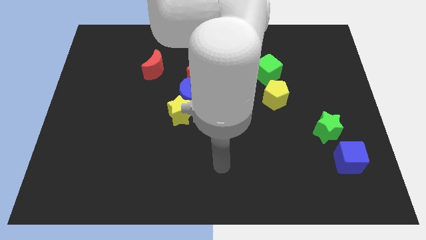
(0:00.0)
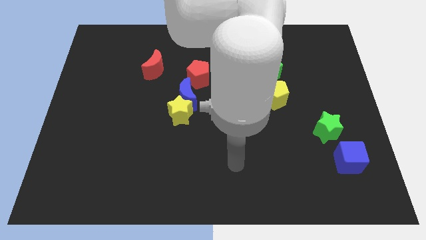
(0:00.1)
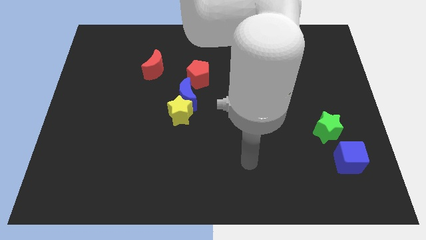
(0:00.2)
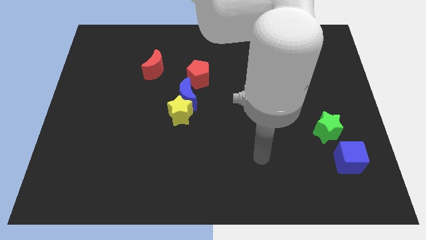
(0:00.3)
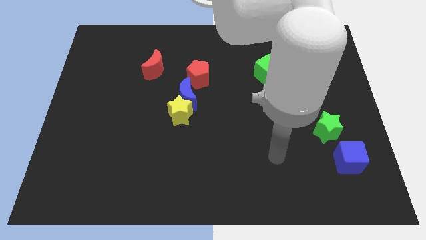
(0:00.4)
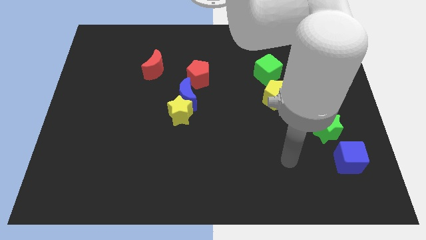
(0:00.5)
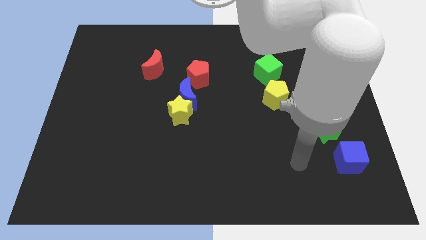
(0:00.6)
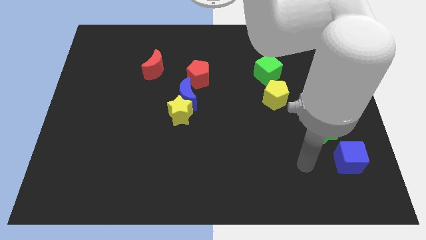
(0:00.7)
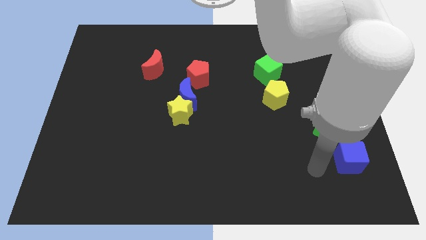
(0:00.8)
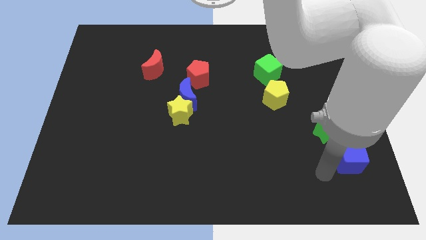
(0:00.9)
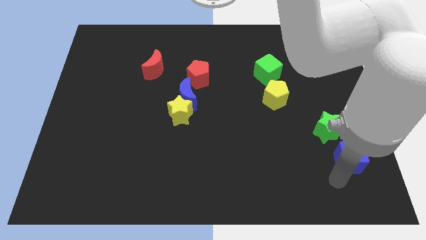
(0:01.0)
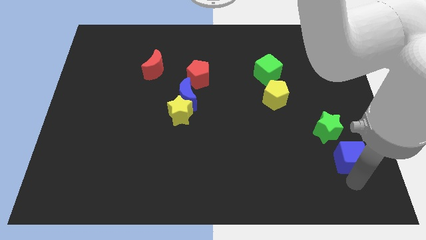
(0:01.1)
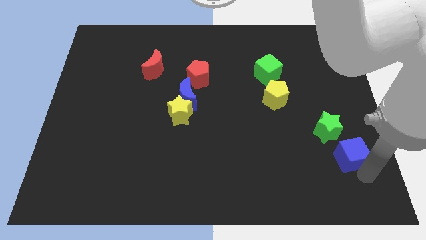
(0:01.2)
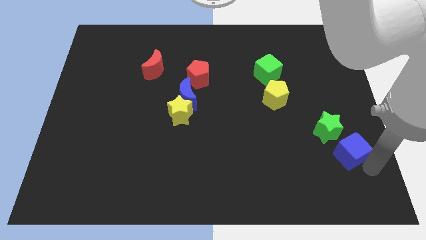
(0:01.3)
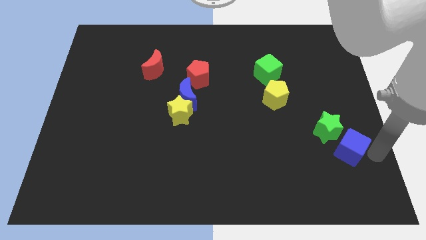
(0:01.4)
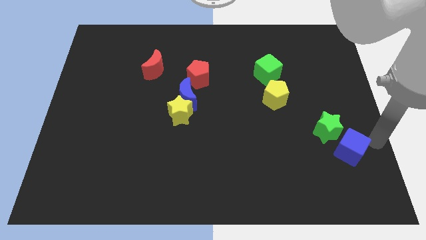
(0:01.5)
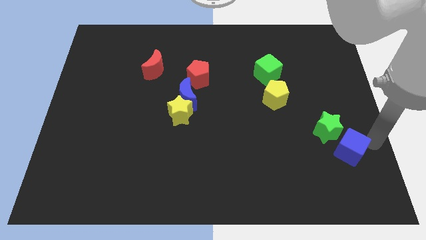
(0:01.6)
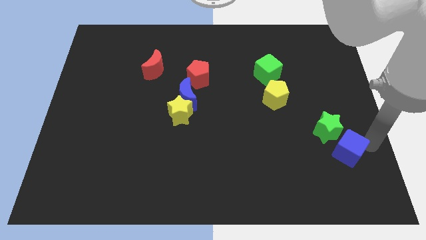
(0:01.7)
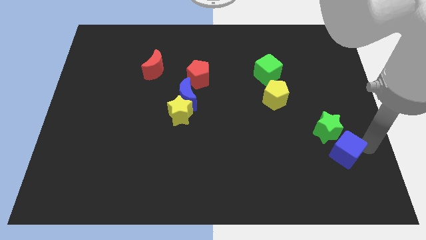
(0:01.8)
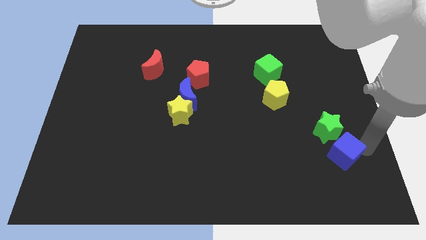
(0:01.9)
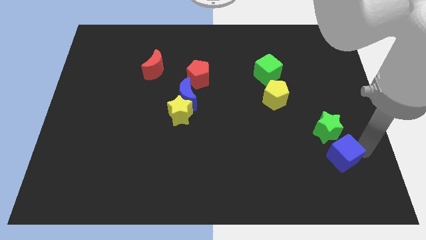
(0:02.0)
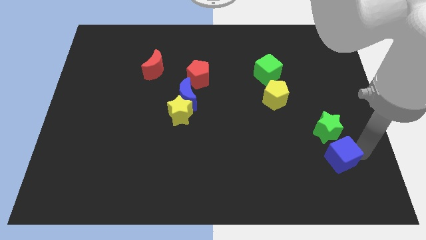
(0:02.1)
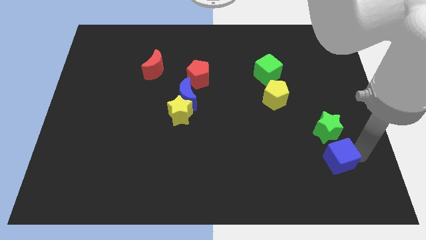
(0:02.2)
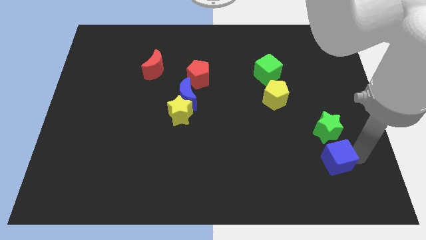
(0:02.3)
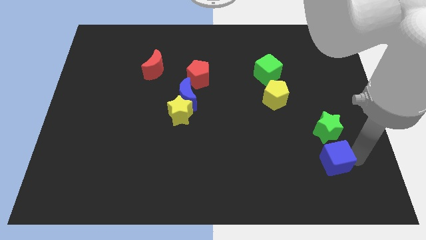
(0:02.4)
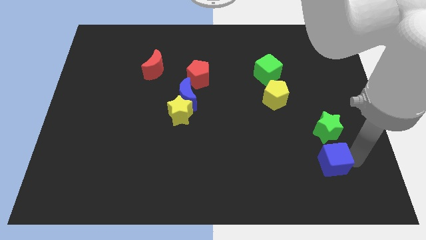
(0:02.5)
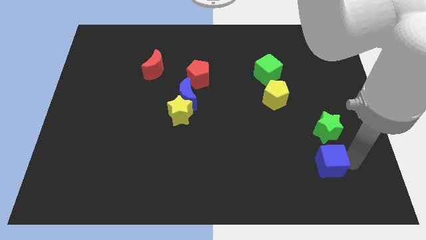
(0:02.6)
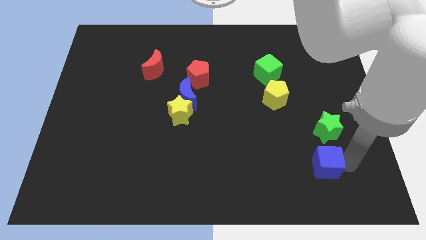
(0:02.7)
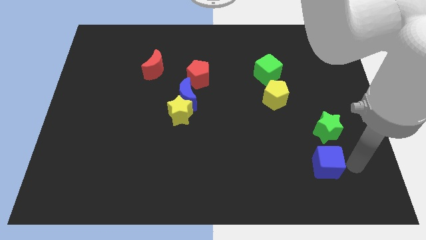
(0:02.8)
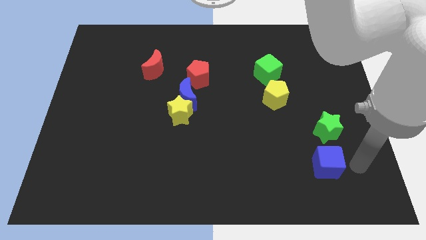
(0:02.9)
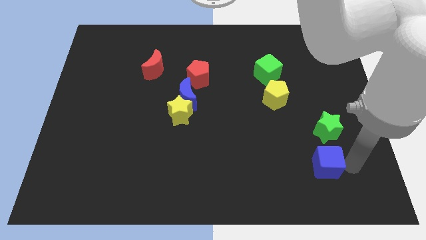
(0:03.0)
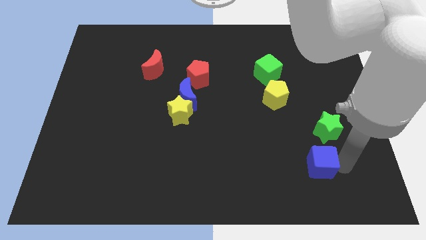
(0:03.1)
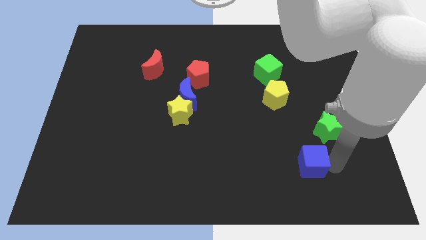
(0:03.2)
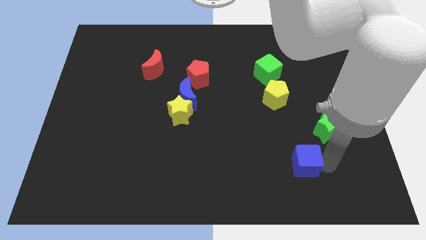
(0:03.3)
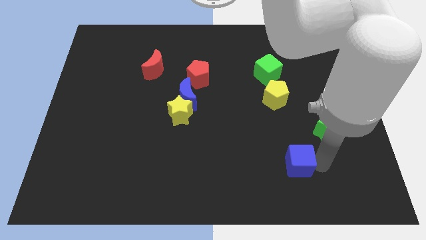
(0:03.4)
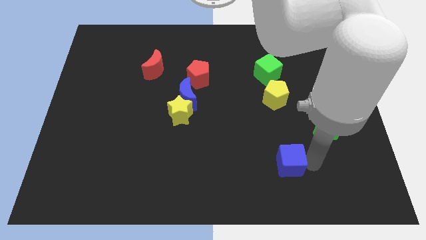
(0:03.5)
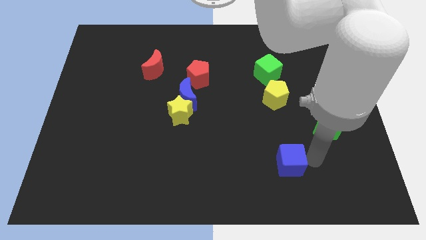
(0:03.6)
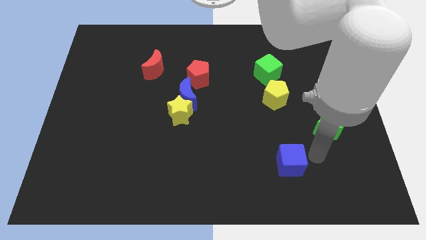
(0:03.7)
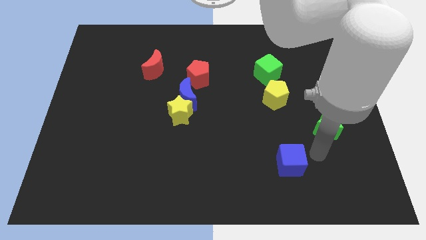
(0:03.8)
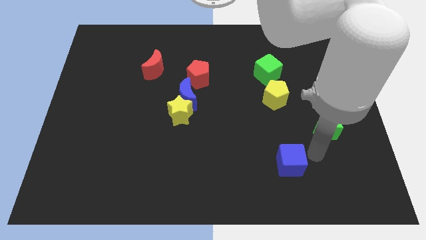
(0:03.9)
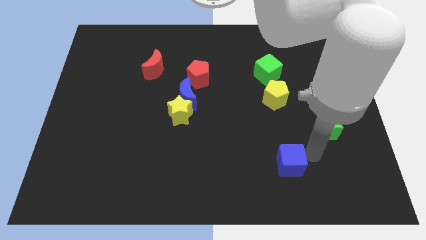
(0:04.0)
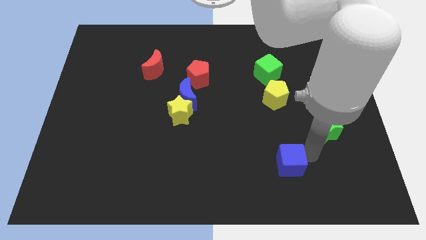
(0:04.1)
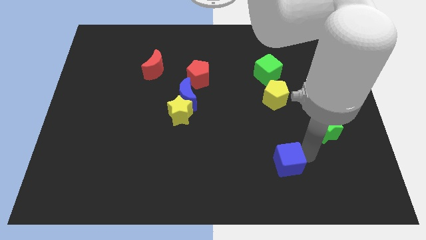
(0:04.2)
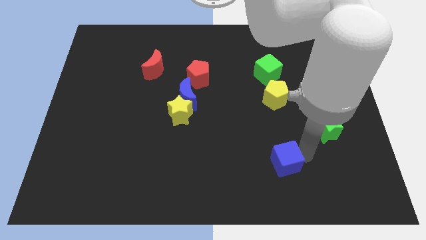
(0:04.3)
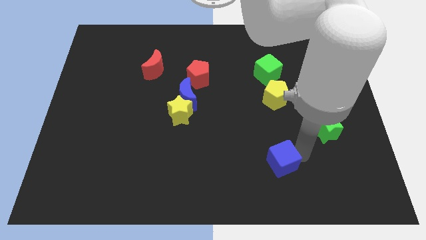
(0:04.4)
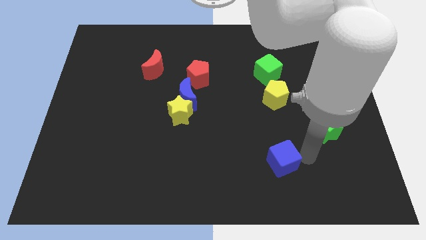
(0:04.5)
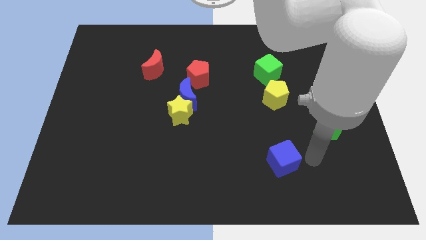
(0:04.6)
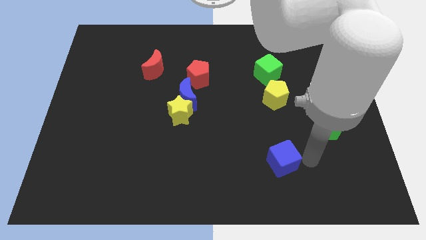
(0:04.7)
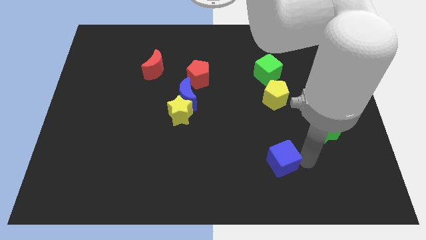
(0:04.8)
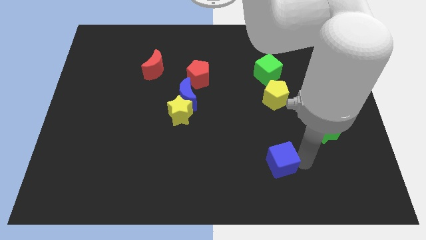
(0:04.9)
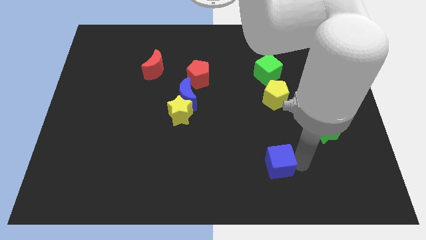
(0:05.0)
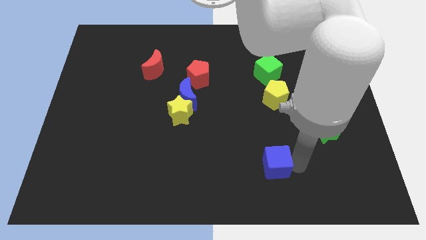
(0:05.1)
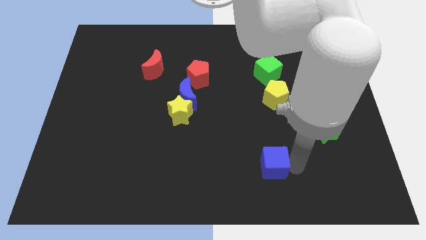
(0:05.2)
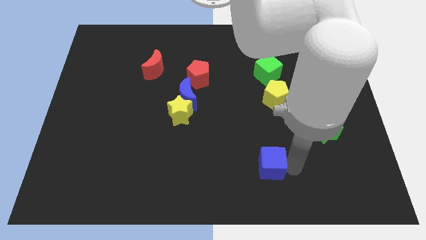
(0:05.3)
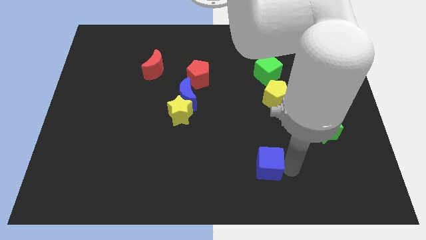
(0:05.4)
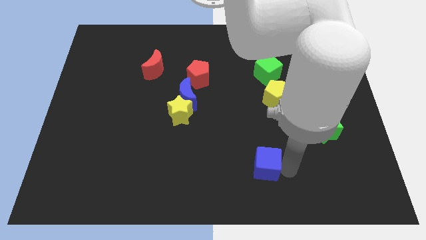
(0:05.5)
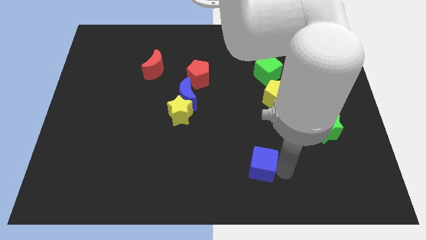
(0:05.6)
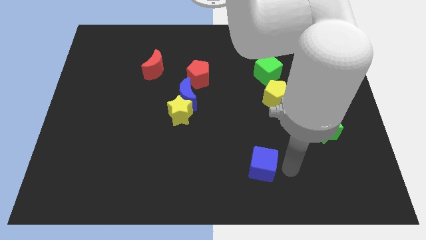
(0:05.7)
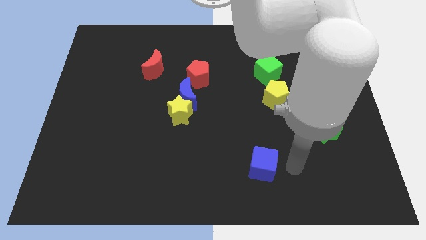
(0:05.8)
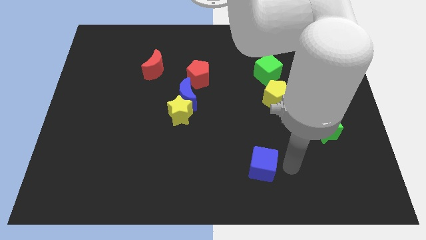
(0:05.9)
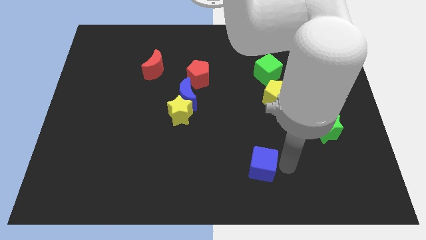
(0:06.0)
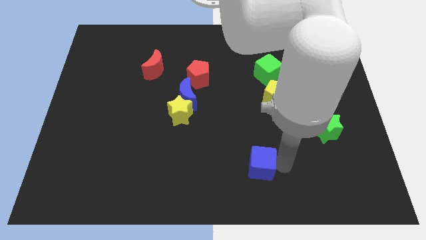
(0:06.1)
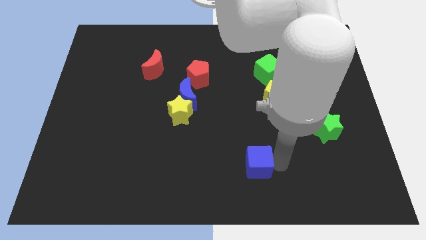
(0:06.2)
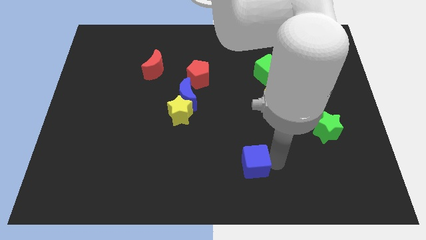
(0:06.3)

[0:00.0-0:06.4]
slide the blue cube left

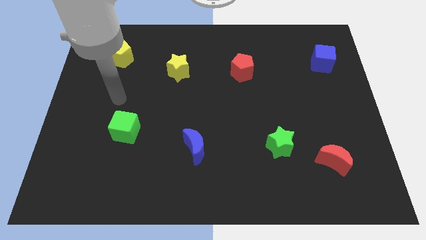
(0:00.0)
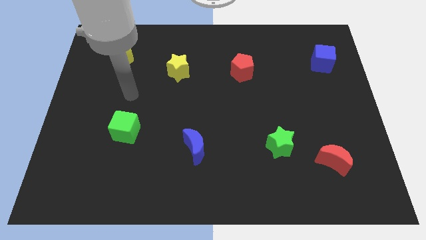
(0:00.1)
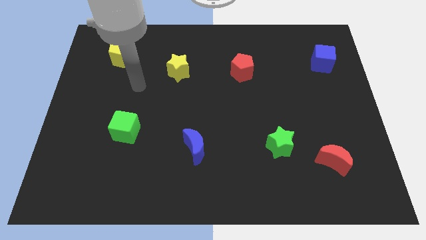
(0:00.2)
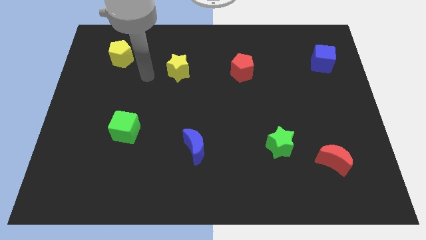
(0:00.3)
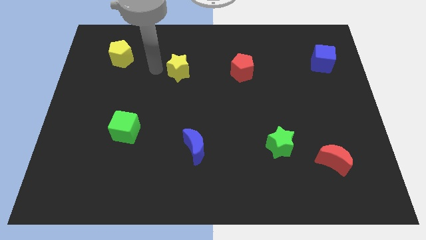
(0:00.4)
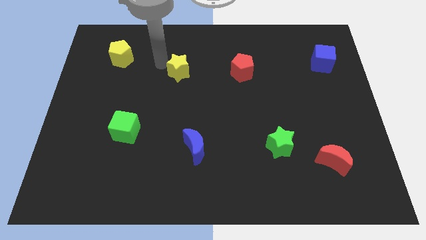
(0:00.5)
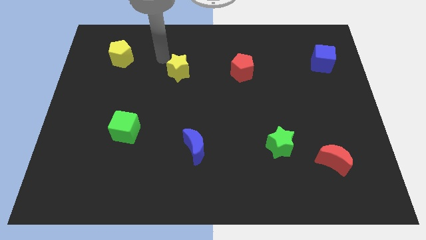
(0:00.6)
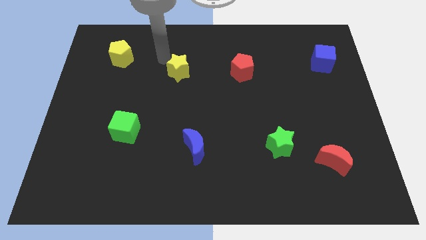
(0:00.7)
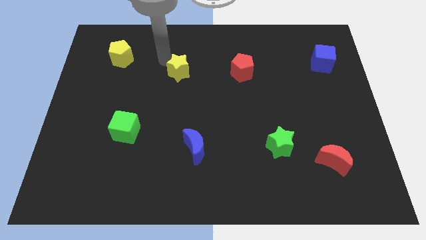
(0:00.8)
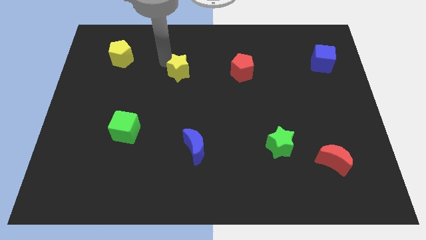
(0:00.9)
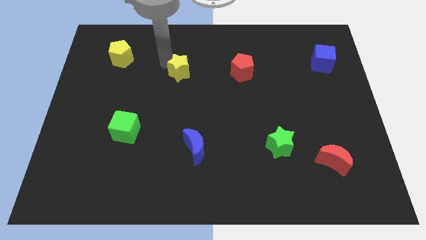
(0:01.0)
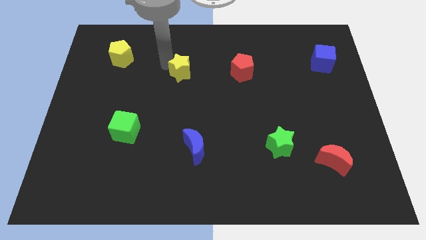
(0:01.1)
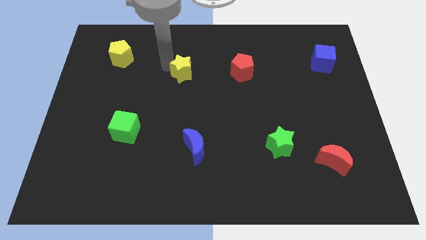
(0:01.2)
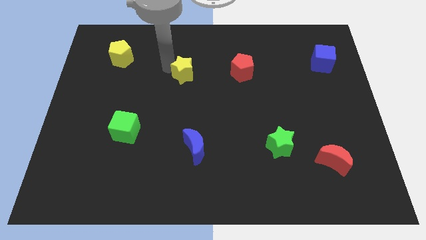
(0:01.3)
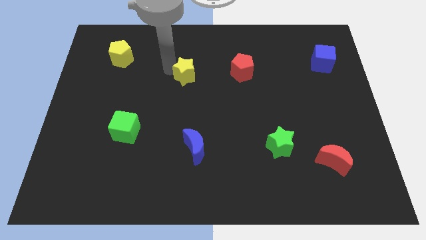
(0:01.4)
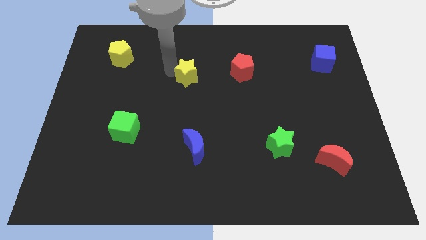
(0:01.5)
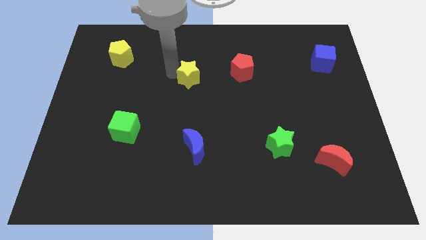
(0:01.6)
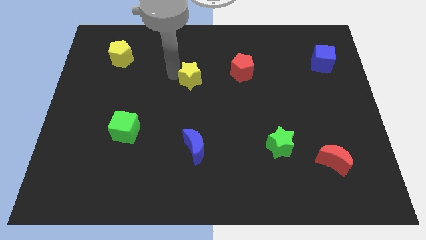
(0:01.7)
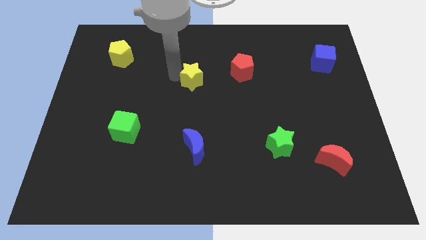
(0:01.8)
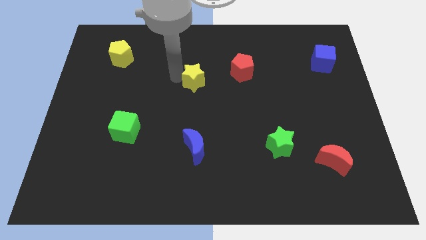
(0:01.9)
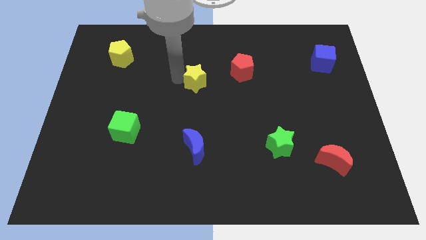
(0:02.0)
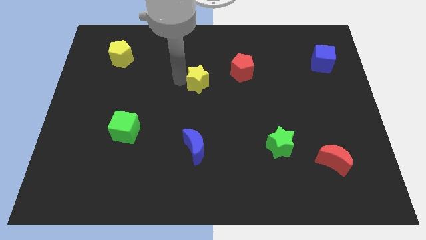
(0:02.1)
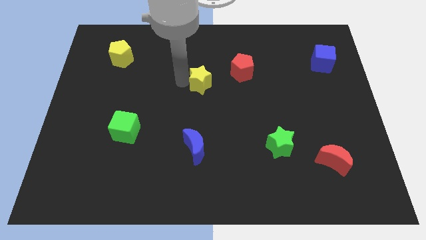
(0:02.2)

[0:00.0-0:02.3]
slightly move the yellow star down and to the right diagonally
